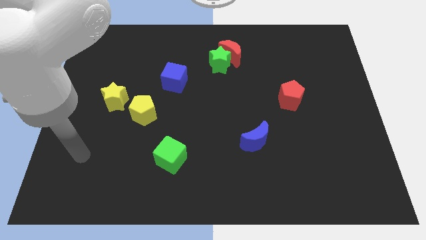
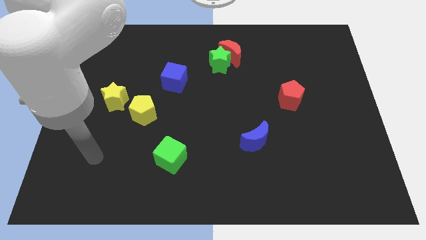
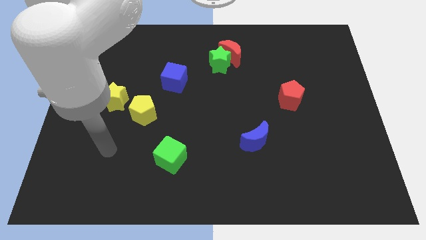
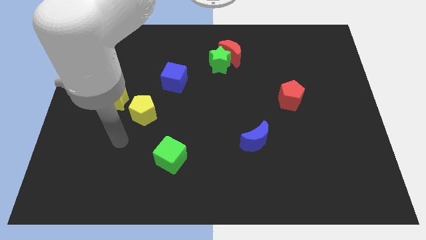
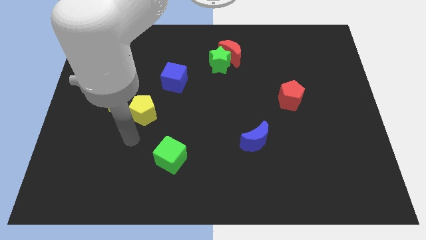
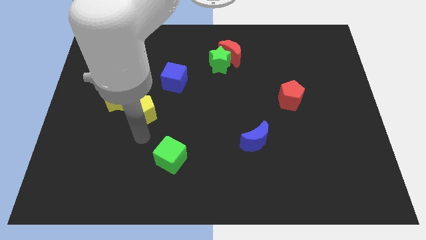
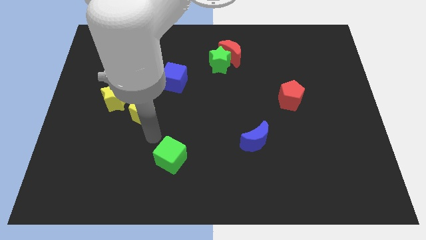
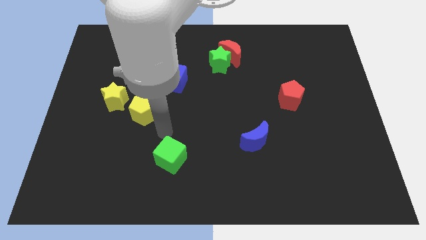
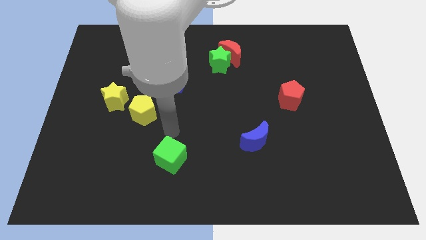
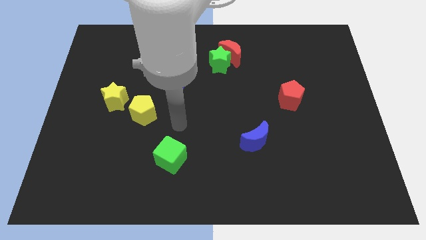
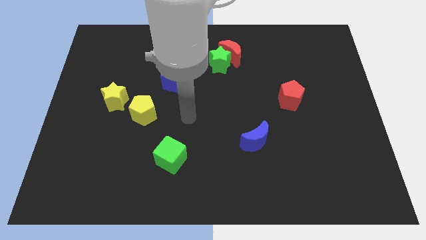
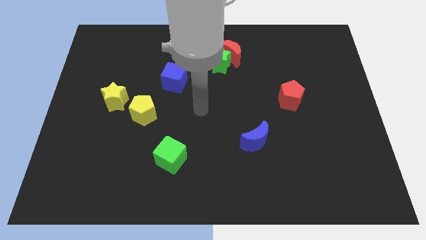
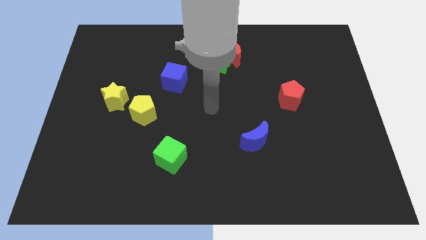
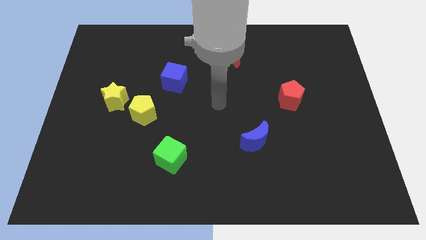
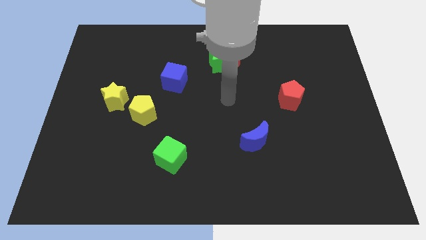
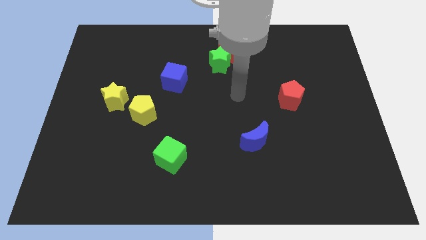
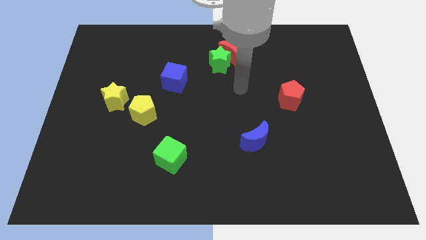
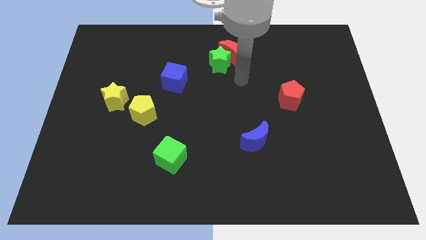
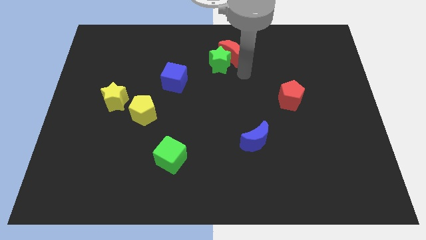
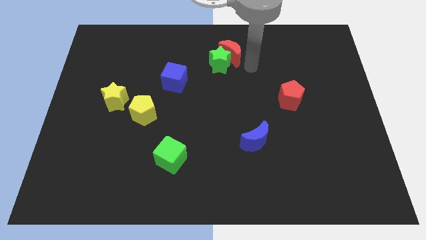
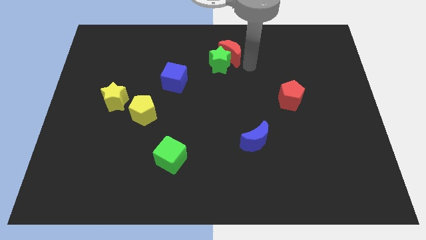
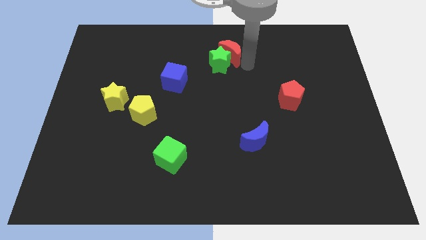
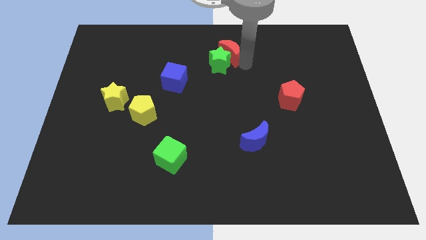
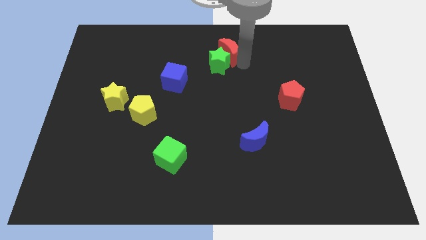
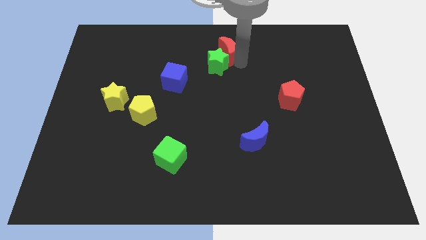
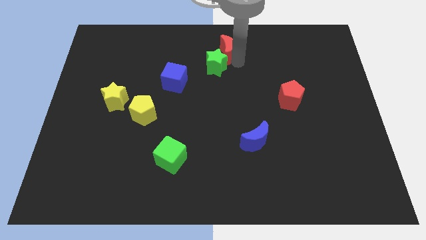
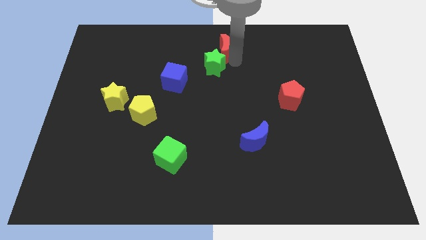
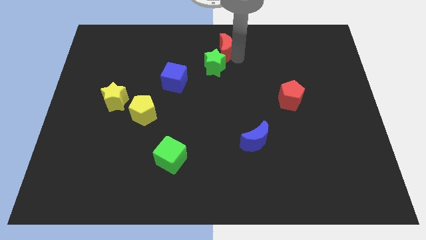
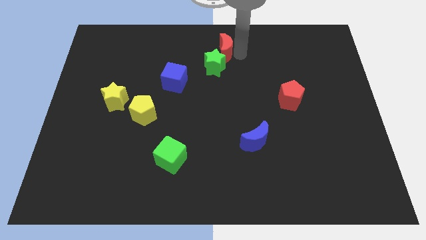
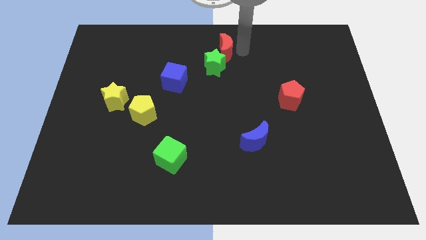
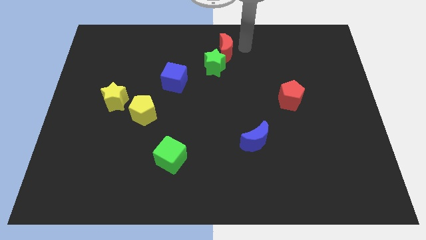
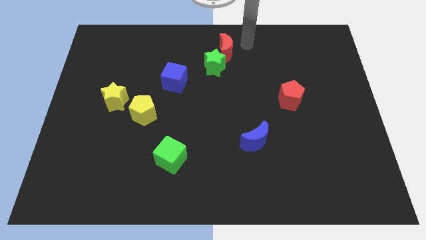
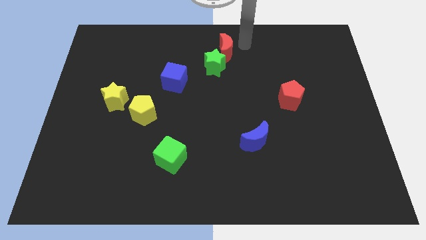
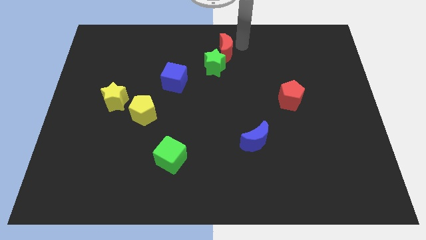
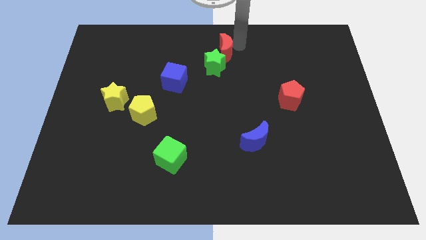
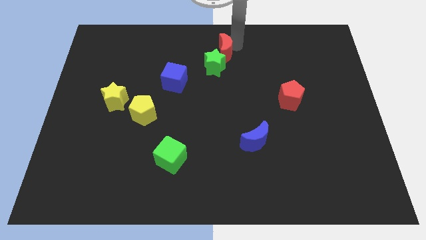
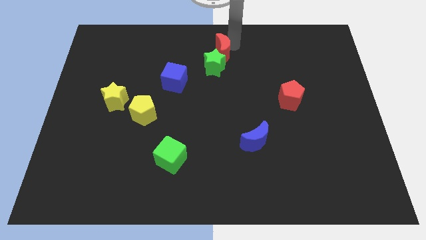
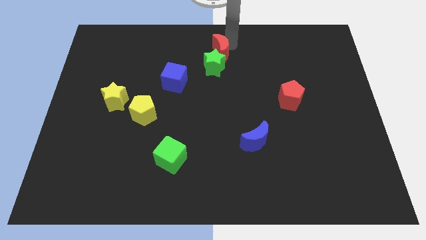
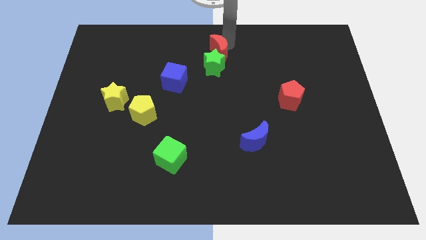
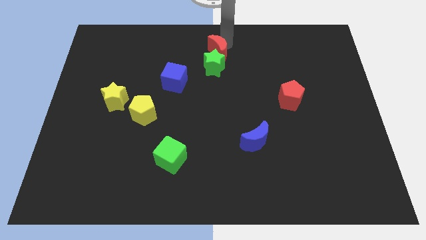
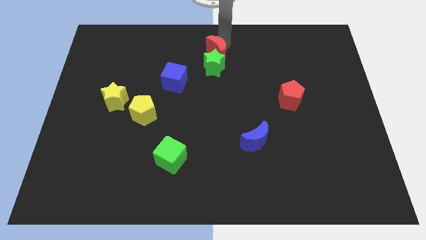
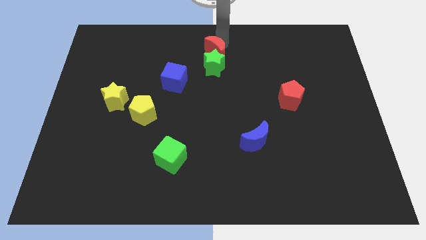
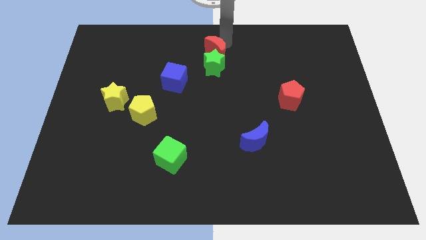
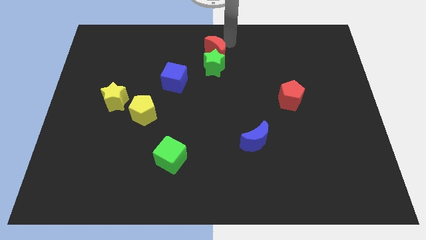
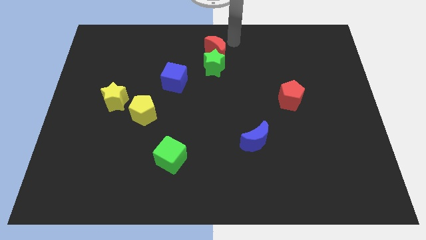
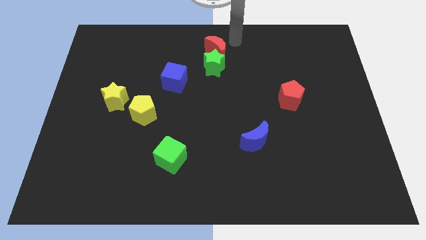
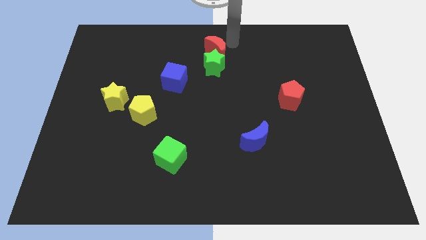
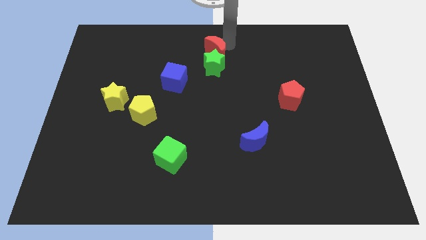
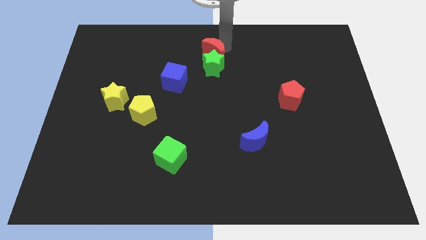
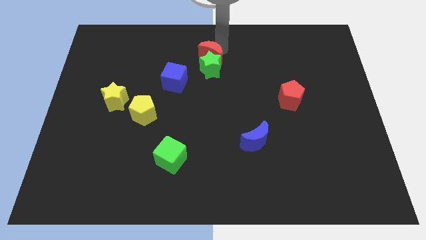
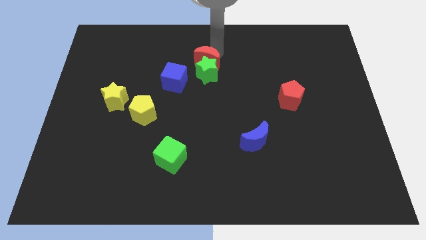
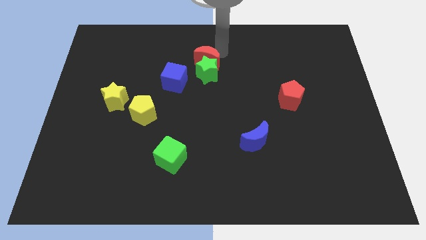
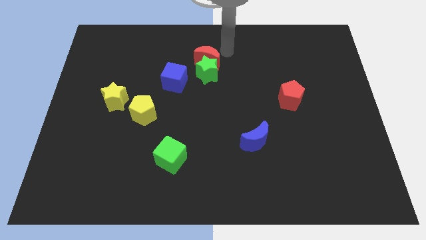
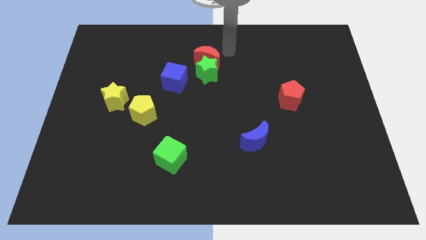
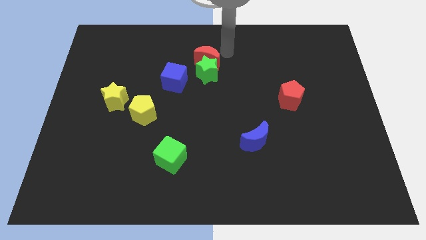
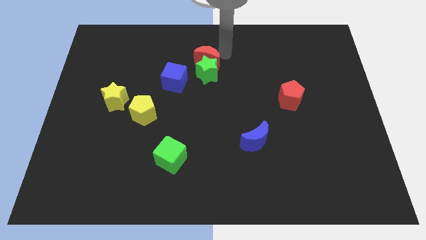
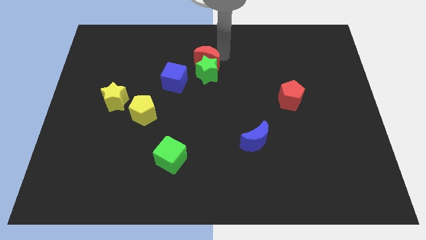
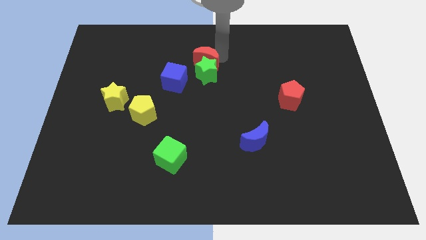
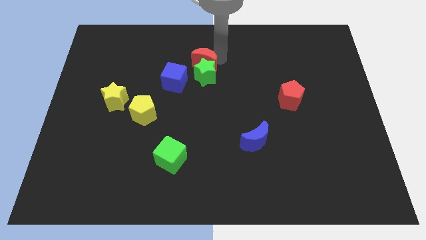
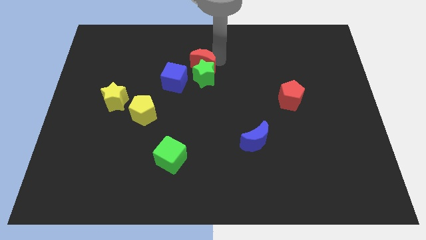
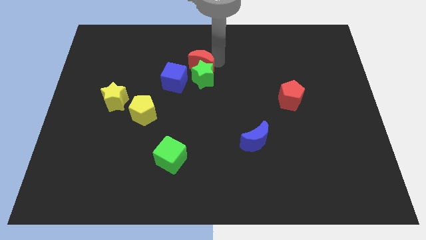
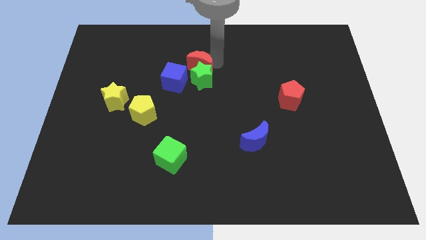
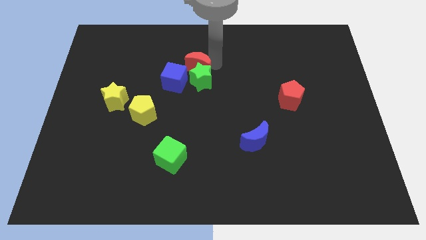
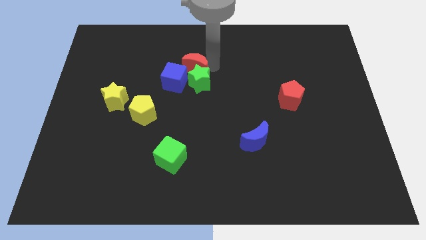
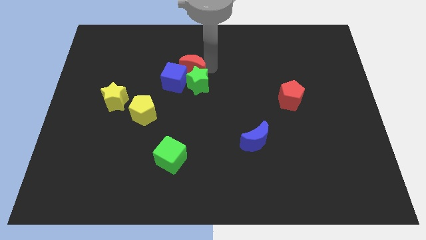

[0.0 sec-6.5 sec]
push the red moon close to the blue cube

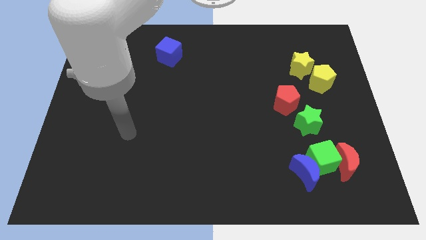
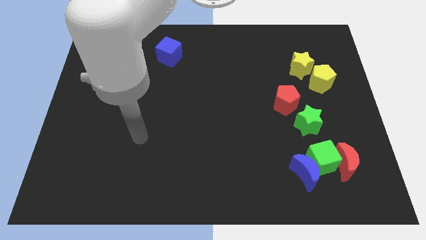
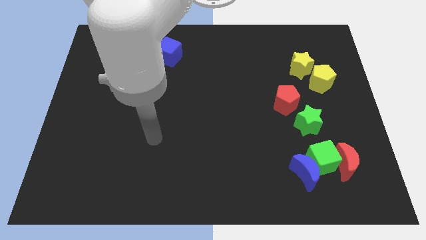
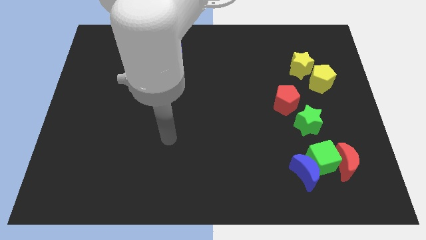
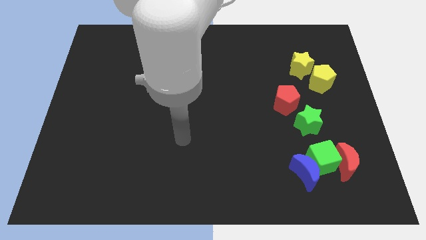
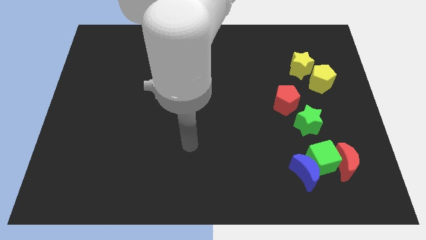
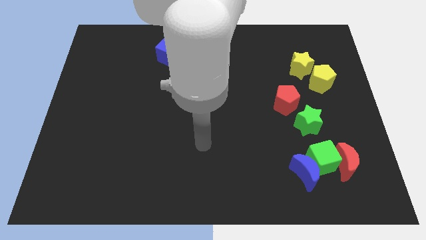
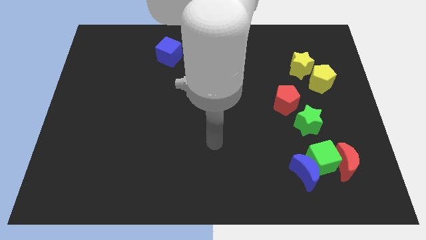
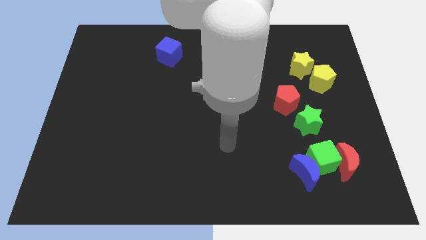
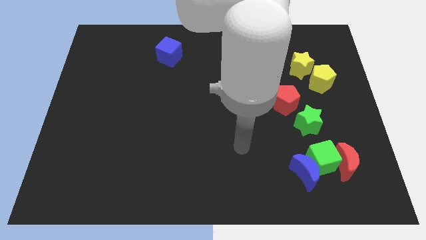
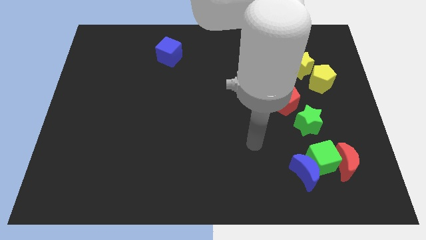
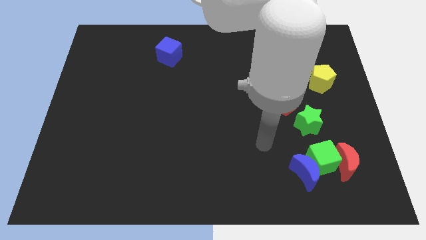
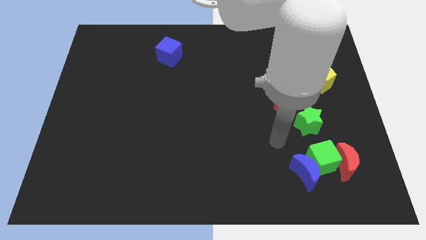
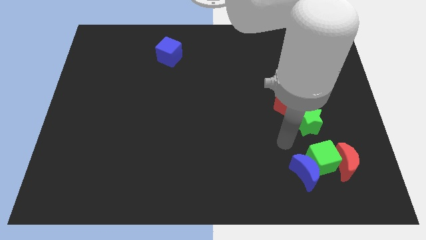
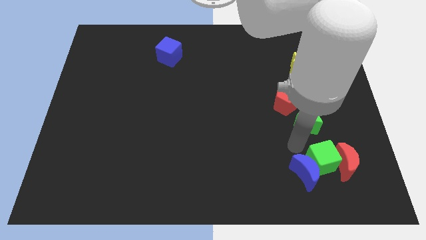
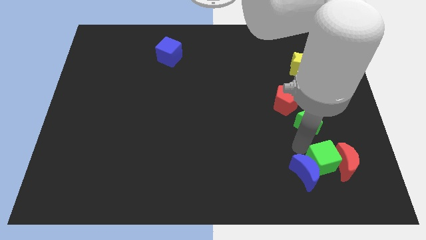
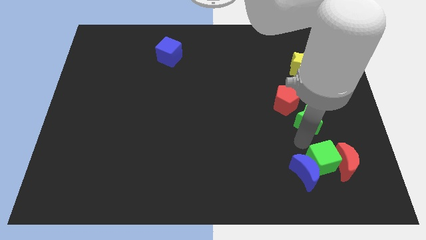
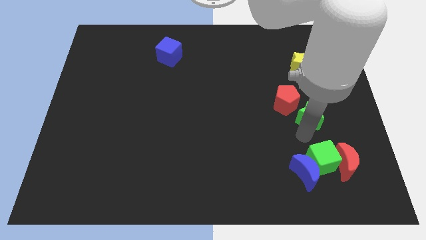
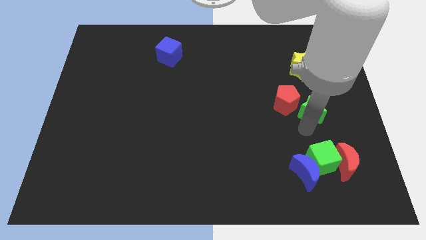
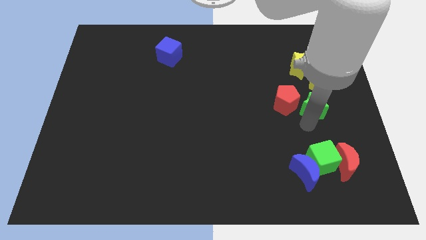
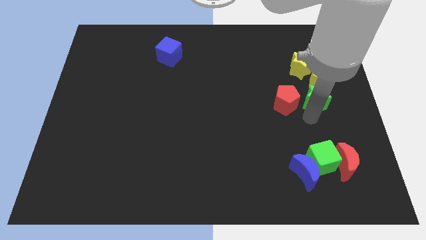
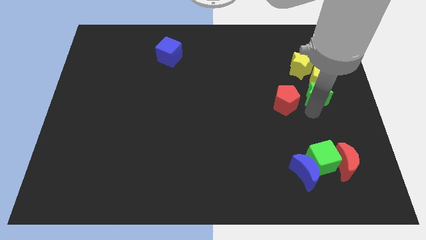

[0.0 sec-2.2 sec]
move the green star next to the yellow pentagon
